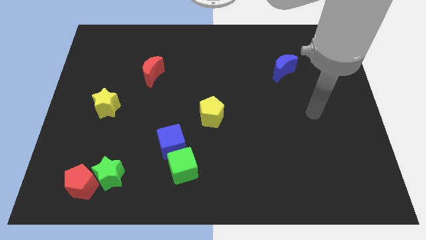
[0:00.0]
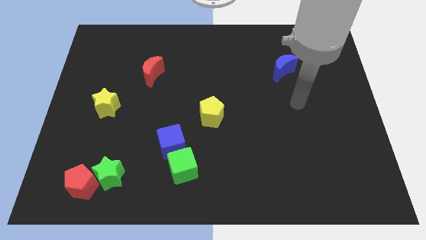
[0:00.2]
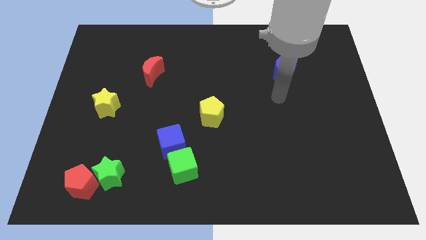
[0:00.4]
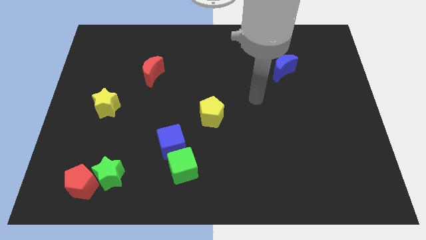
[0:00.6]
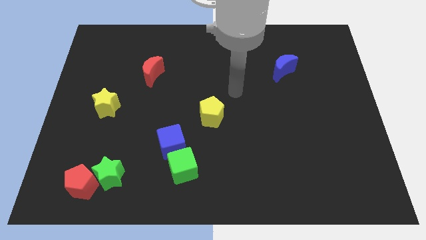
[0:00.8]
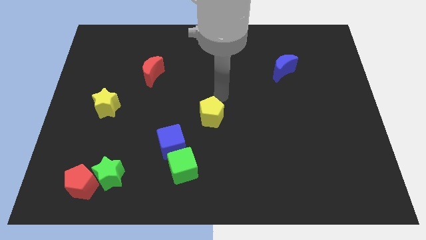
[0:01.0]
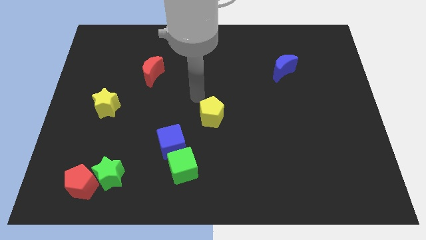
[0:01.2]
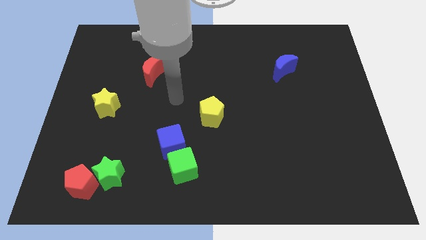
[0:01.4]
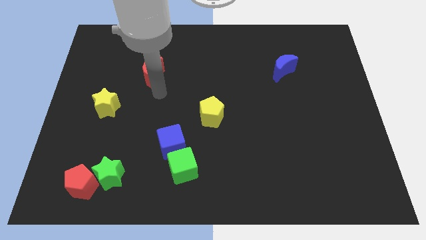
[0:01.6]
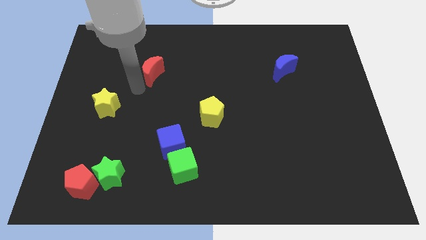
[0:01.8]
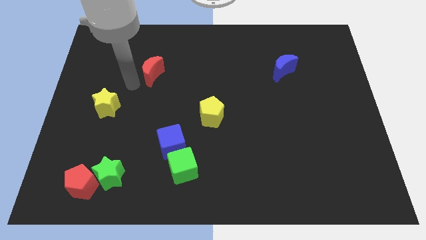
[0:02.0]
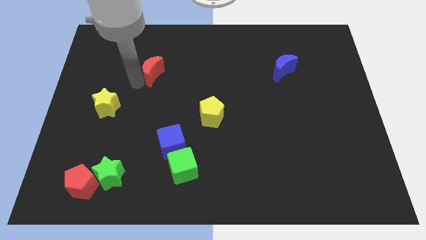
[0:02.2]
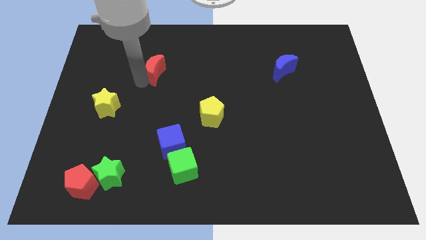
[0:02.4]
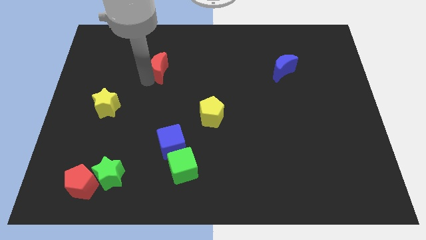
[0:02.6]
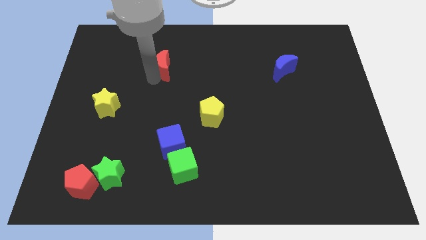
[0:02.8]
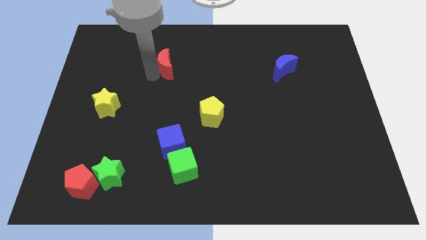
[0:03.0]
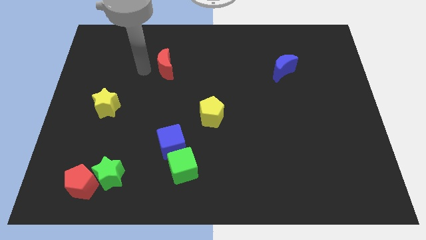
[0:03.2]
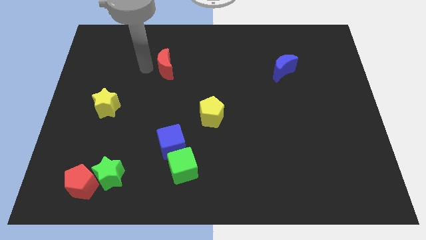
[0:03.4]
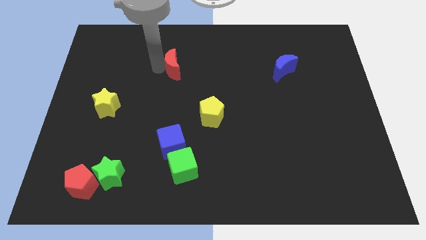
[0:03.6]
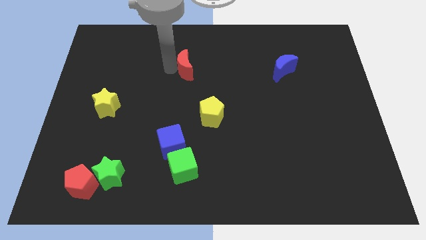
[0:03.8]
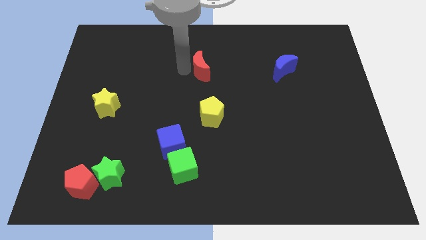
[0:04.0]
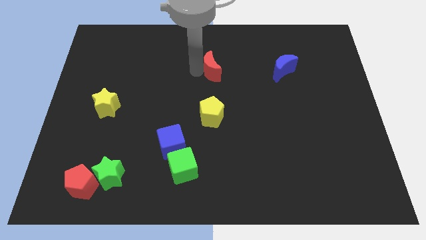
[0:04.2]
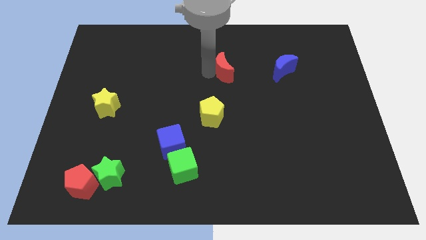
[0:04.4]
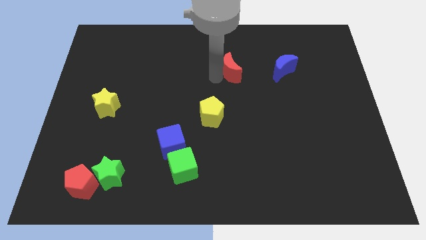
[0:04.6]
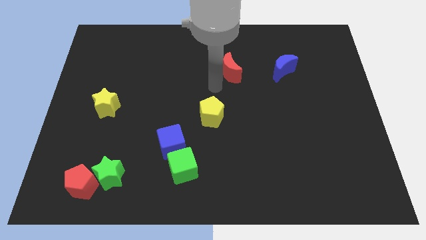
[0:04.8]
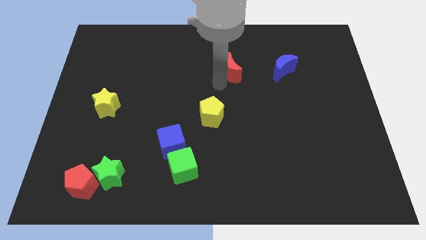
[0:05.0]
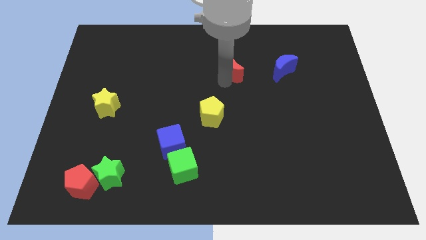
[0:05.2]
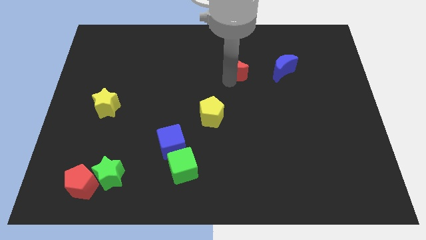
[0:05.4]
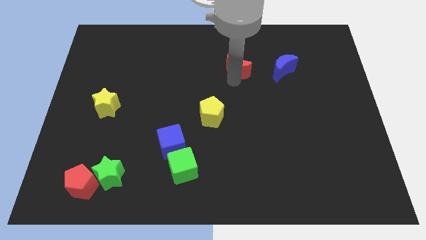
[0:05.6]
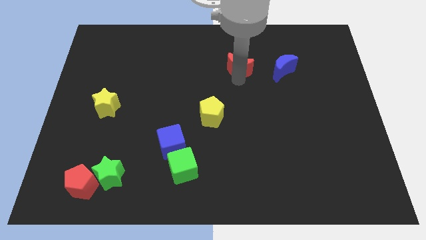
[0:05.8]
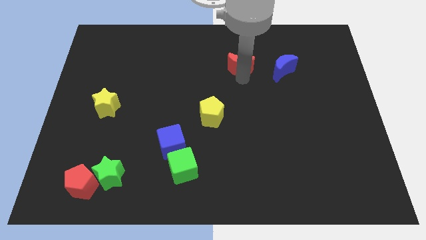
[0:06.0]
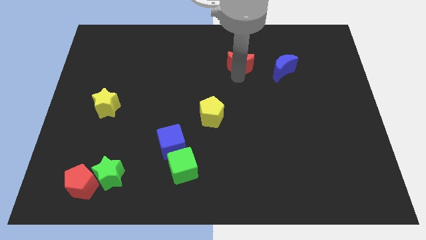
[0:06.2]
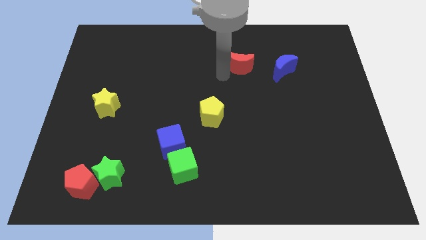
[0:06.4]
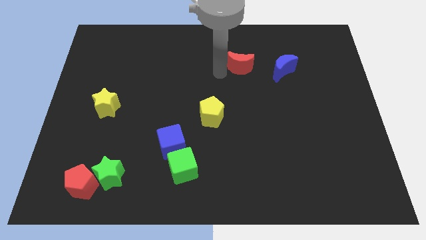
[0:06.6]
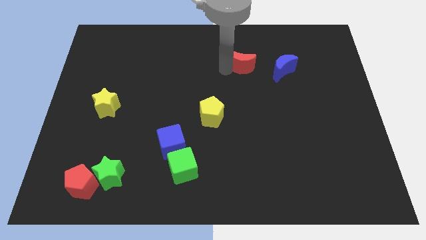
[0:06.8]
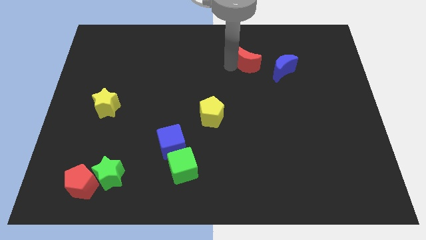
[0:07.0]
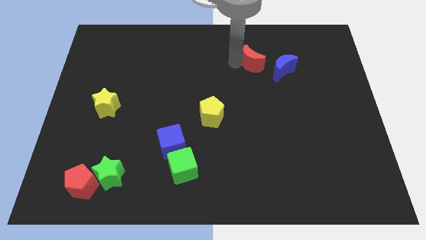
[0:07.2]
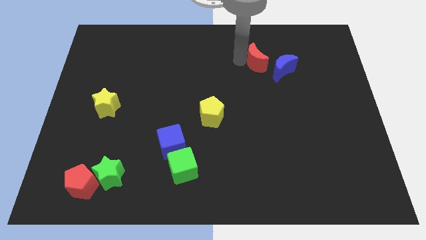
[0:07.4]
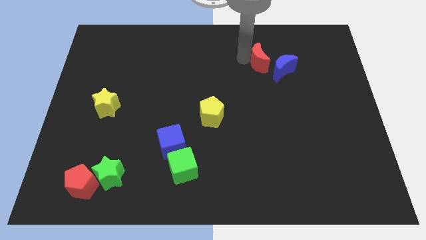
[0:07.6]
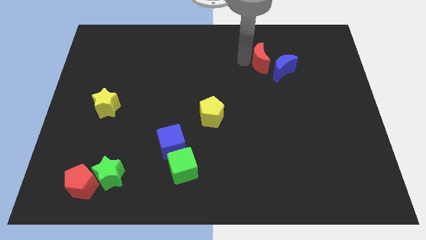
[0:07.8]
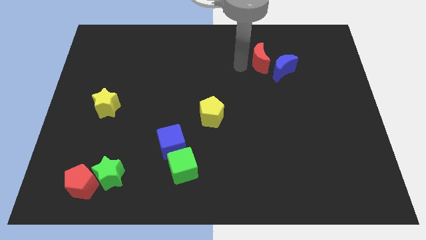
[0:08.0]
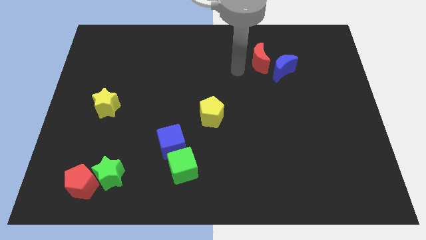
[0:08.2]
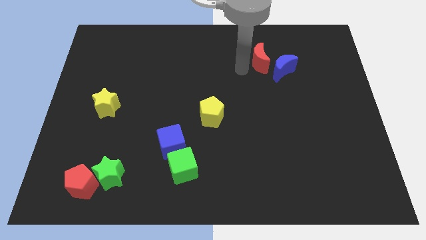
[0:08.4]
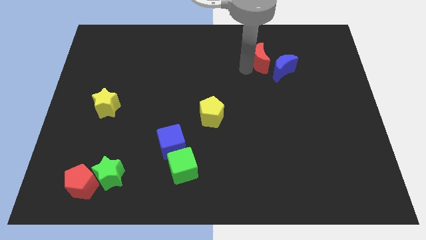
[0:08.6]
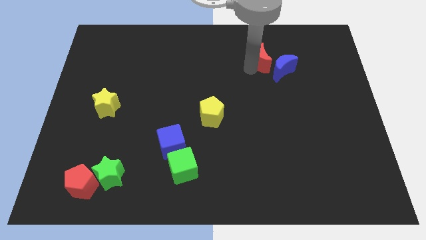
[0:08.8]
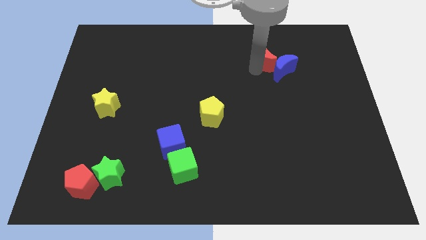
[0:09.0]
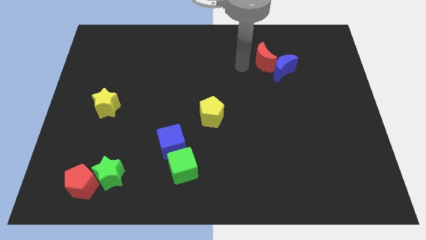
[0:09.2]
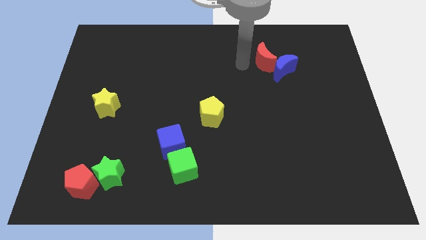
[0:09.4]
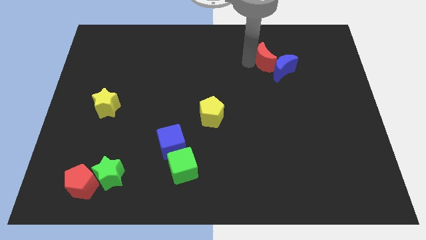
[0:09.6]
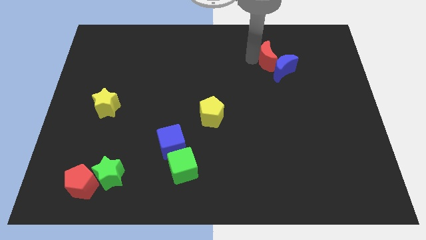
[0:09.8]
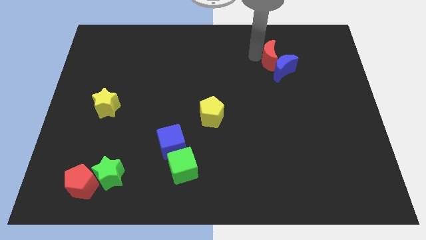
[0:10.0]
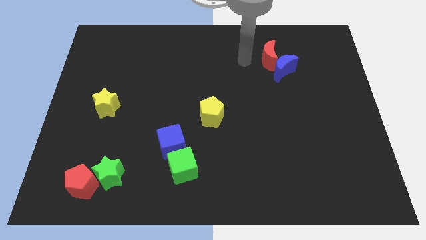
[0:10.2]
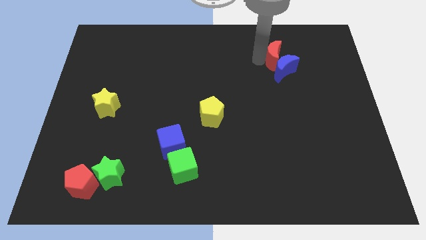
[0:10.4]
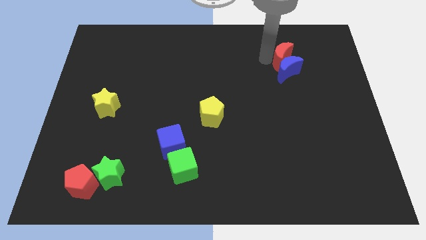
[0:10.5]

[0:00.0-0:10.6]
slide the red moon diagonally up and to the right of the blue moon

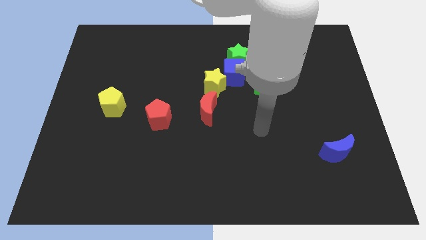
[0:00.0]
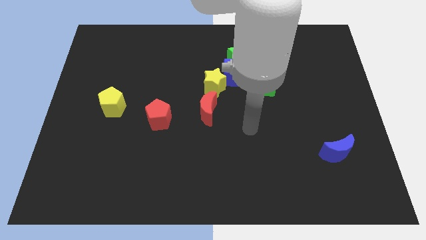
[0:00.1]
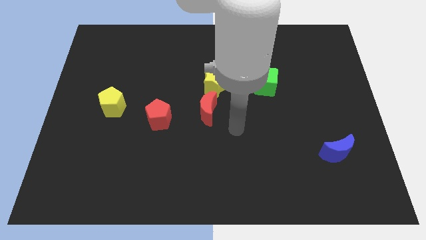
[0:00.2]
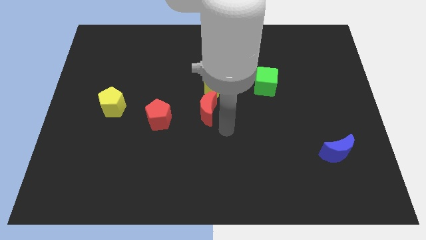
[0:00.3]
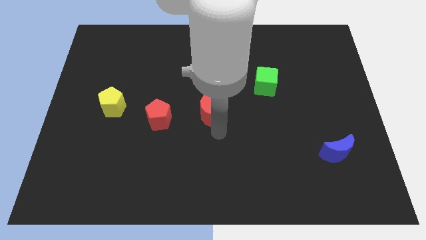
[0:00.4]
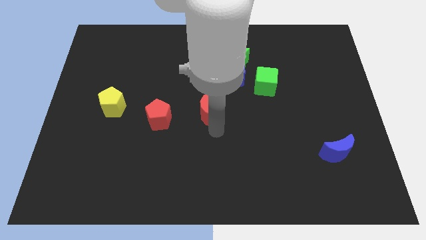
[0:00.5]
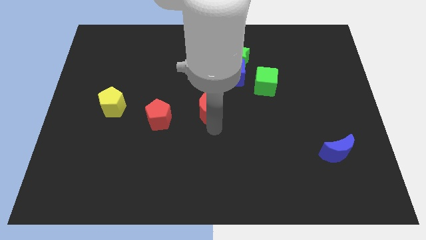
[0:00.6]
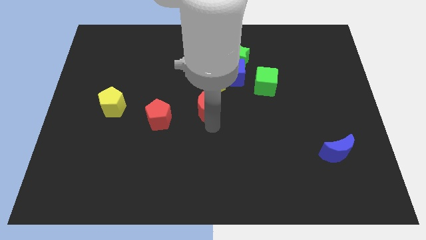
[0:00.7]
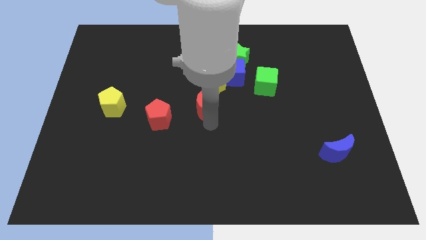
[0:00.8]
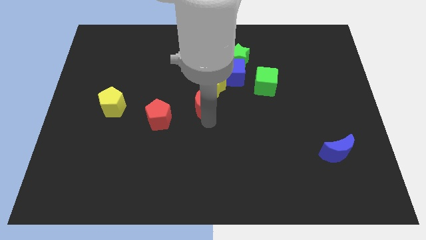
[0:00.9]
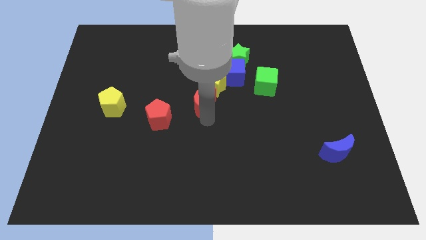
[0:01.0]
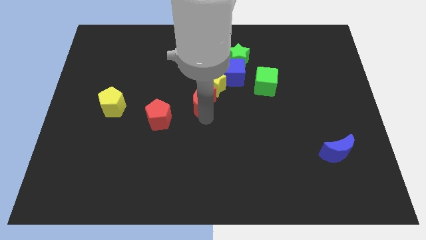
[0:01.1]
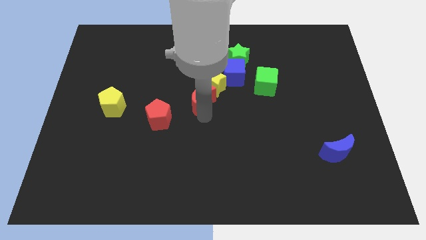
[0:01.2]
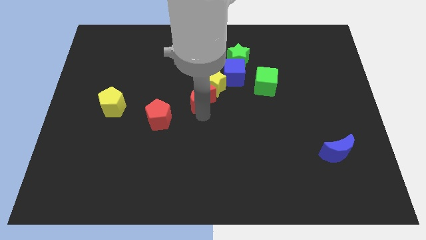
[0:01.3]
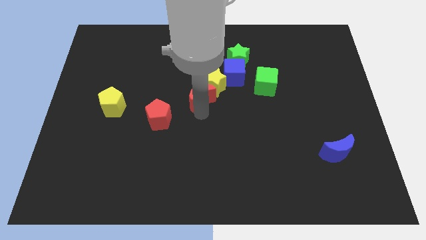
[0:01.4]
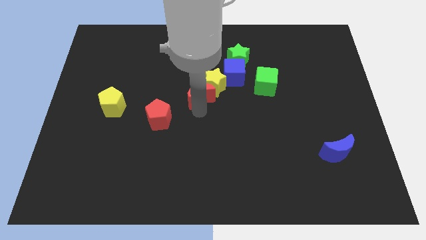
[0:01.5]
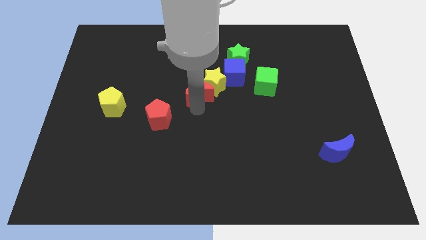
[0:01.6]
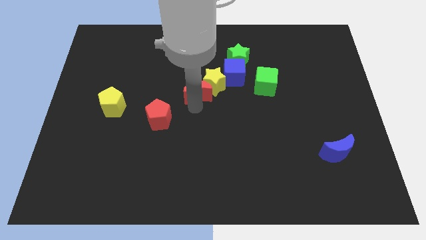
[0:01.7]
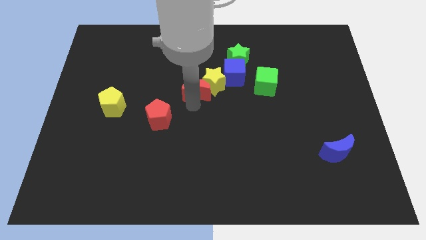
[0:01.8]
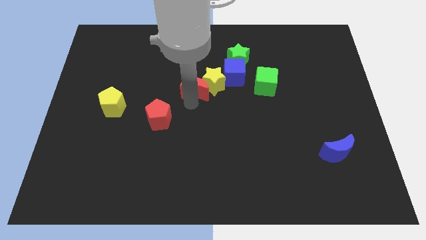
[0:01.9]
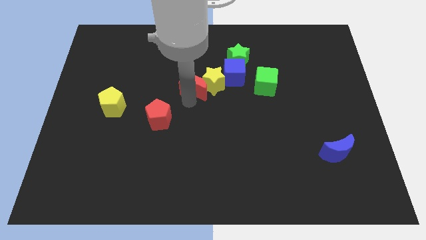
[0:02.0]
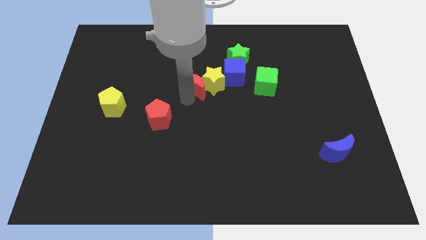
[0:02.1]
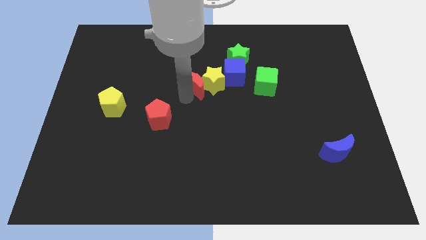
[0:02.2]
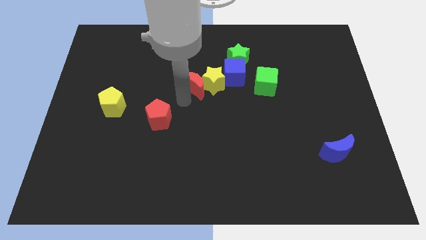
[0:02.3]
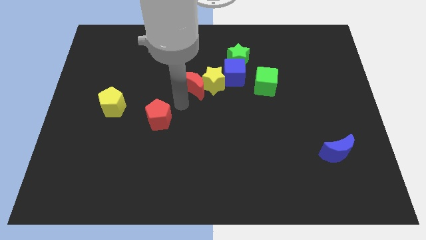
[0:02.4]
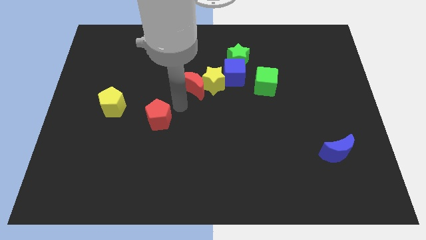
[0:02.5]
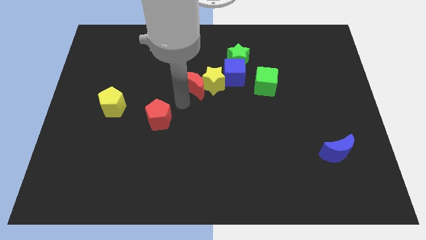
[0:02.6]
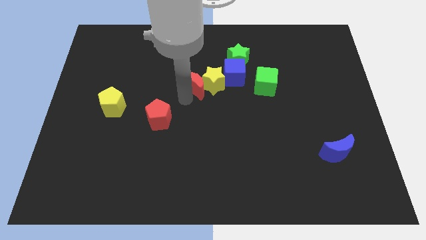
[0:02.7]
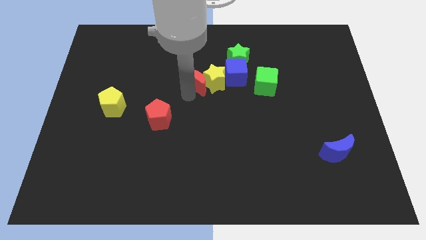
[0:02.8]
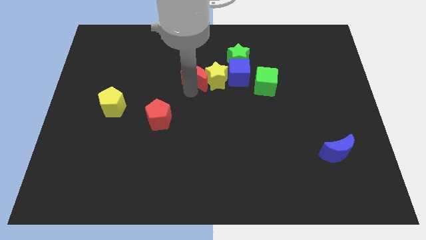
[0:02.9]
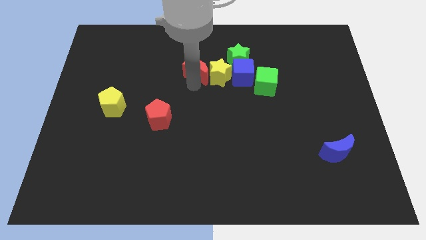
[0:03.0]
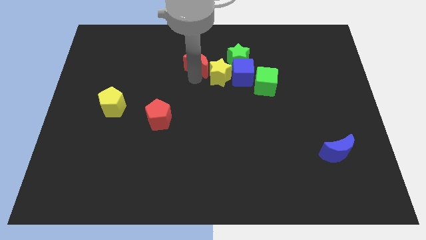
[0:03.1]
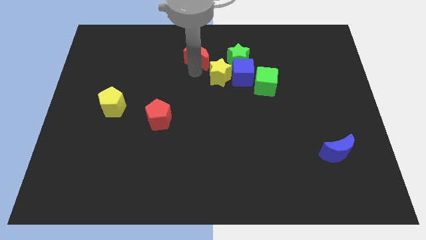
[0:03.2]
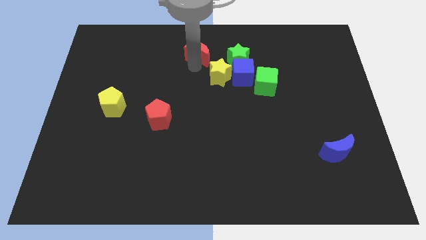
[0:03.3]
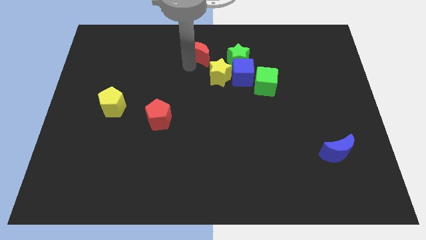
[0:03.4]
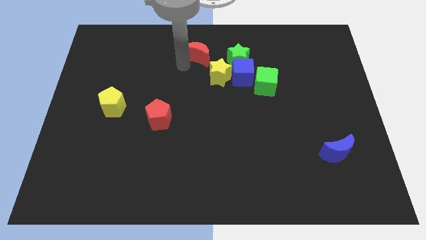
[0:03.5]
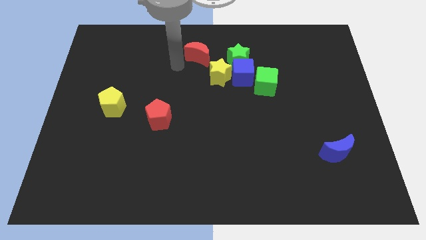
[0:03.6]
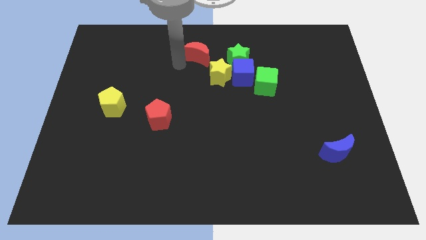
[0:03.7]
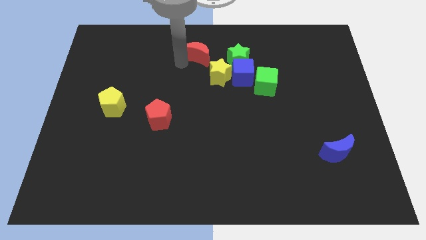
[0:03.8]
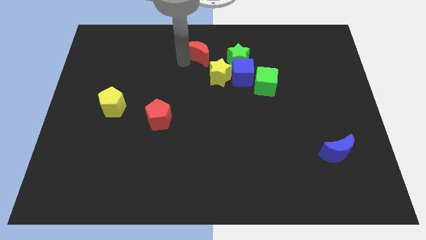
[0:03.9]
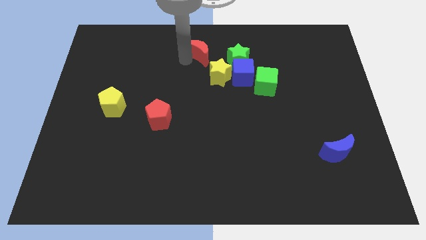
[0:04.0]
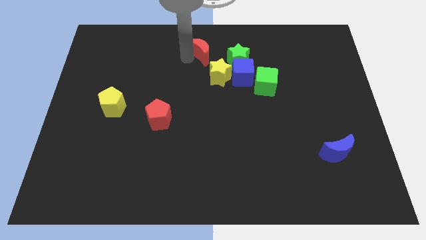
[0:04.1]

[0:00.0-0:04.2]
put the red moon above the yellow star
